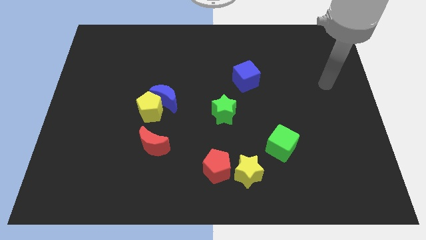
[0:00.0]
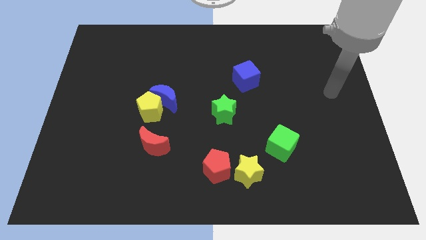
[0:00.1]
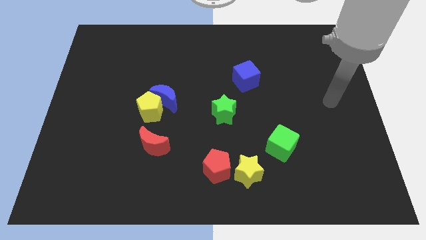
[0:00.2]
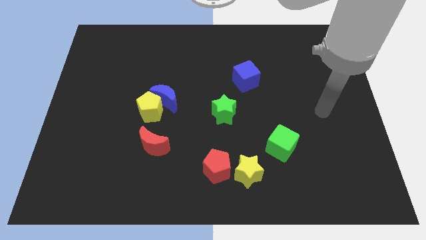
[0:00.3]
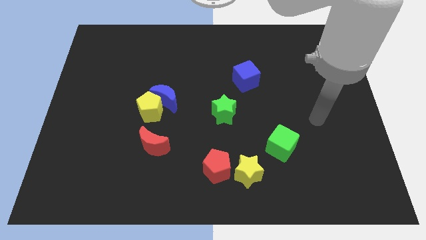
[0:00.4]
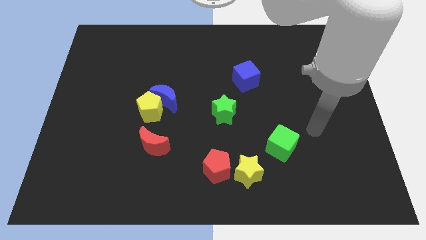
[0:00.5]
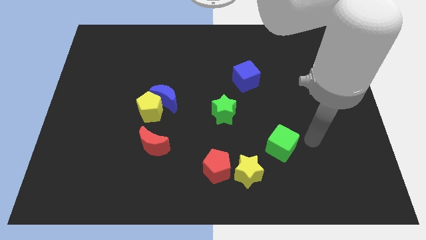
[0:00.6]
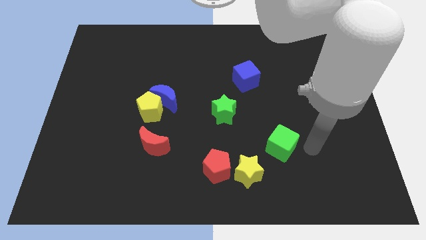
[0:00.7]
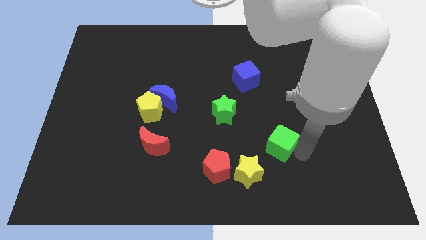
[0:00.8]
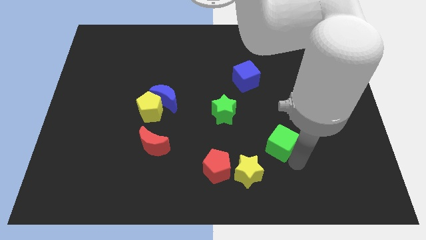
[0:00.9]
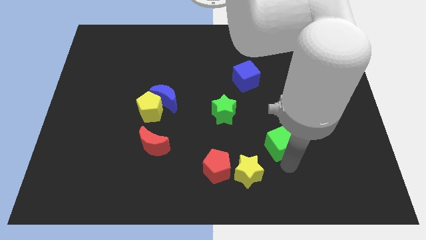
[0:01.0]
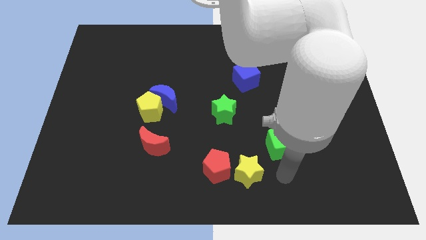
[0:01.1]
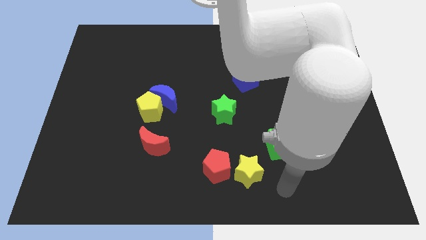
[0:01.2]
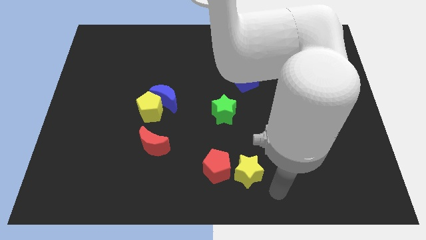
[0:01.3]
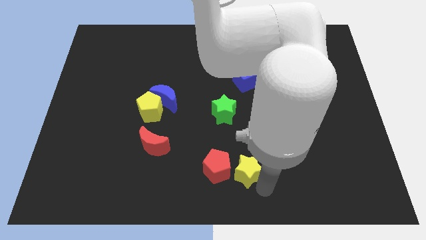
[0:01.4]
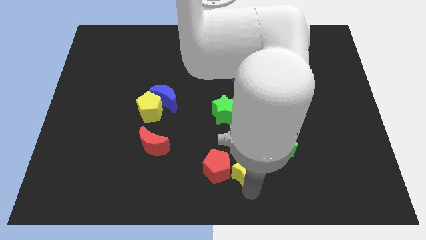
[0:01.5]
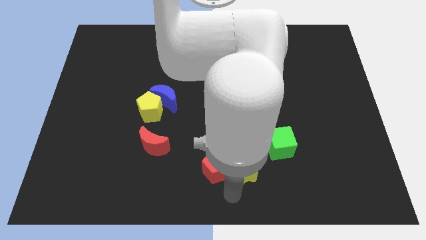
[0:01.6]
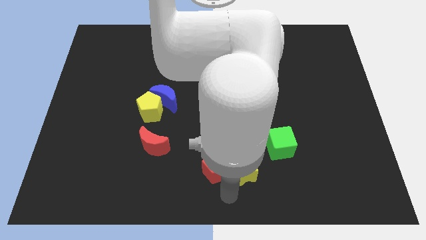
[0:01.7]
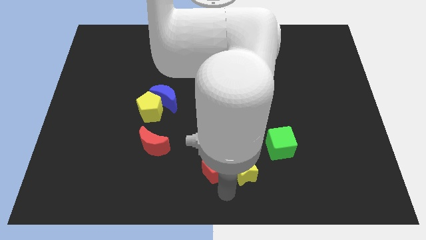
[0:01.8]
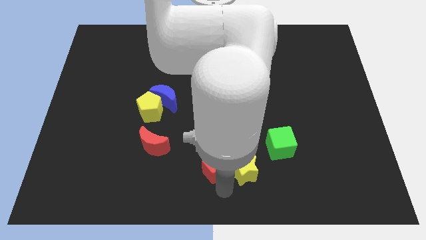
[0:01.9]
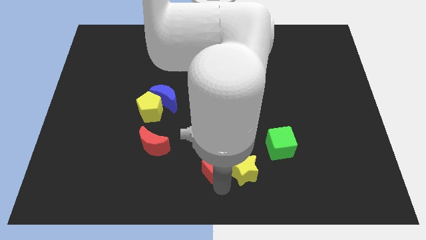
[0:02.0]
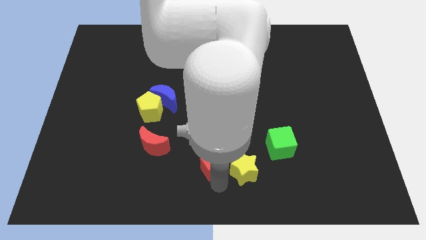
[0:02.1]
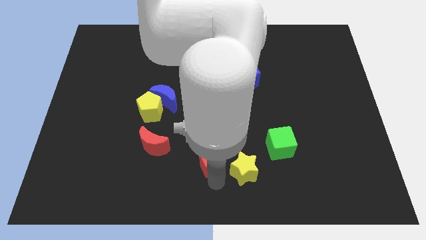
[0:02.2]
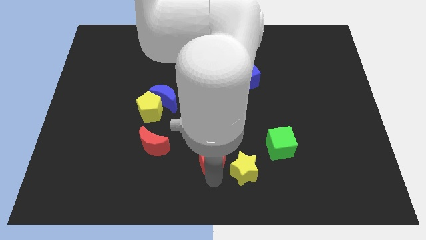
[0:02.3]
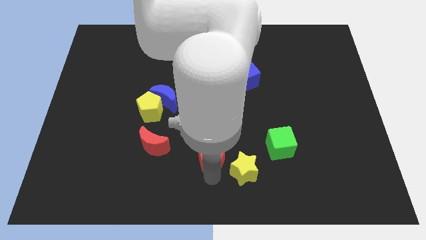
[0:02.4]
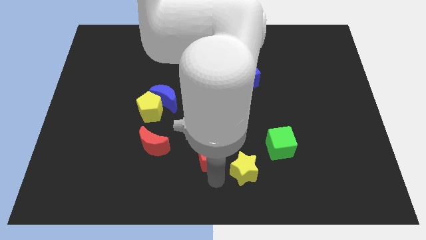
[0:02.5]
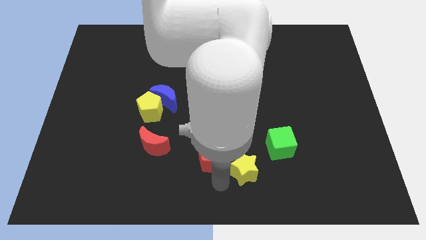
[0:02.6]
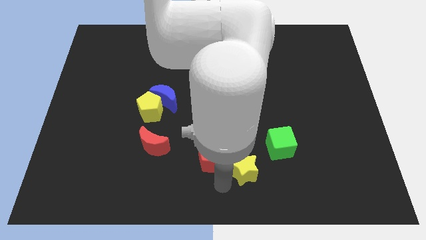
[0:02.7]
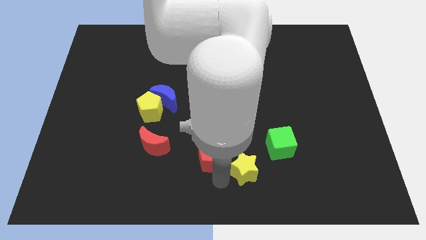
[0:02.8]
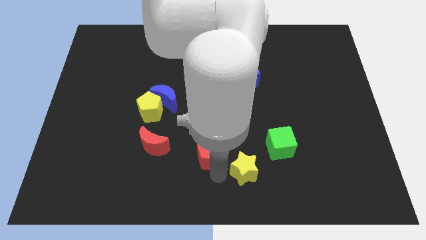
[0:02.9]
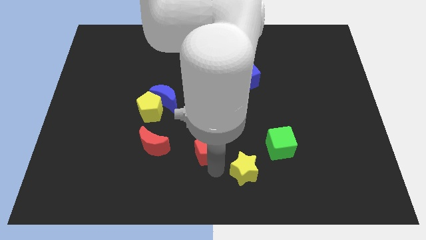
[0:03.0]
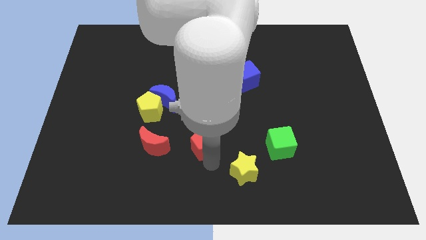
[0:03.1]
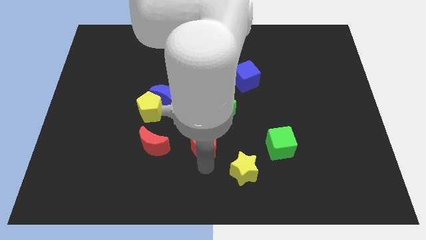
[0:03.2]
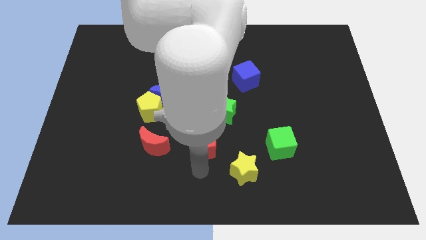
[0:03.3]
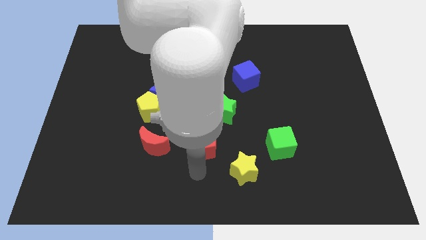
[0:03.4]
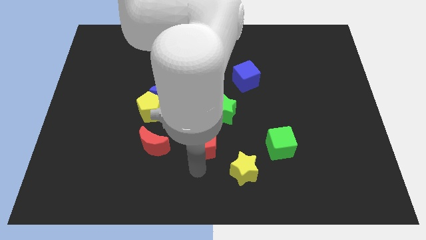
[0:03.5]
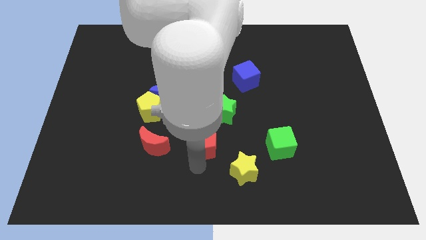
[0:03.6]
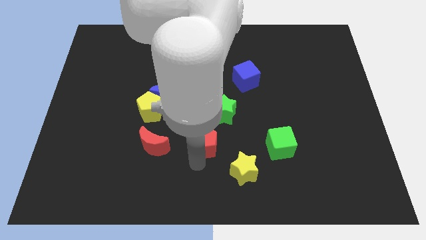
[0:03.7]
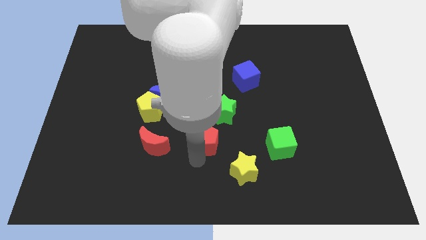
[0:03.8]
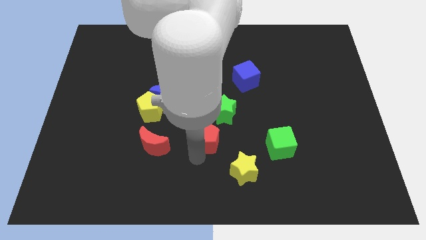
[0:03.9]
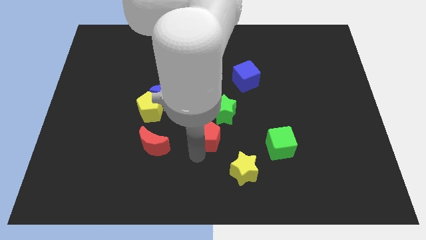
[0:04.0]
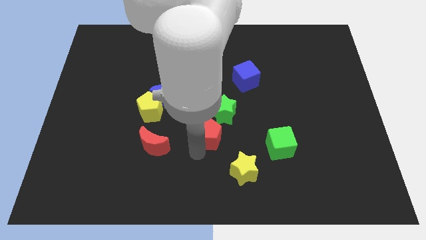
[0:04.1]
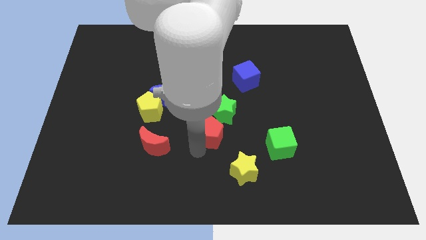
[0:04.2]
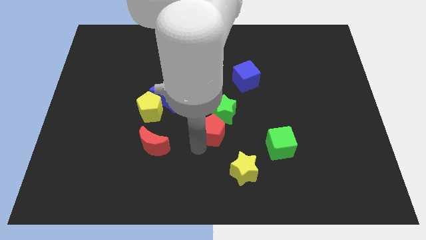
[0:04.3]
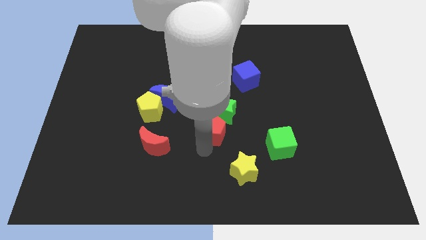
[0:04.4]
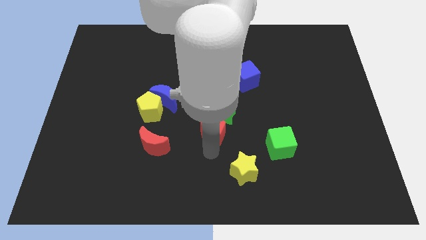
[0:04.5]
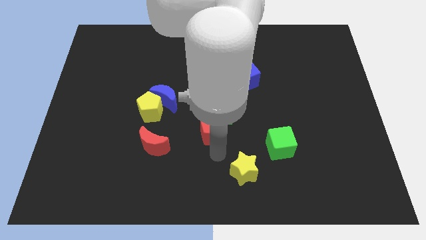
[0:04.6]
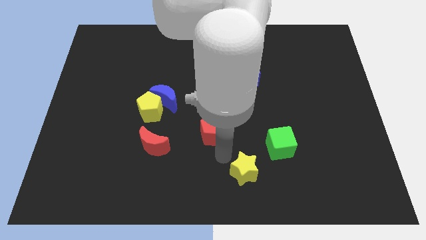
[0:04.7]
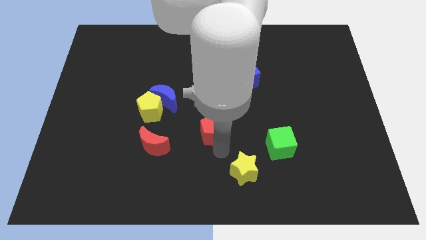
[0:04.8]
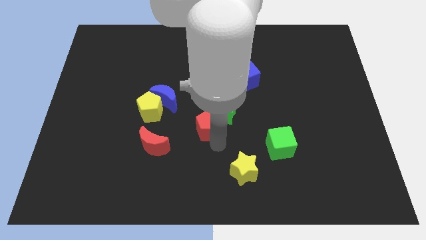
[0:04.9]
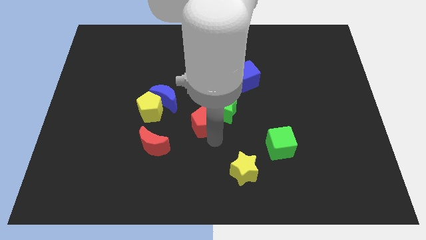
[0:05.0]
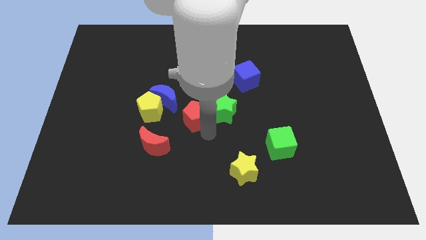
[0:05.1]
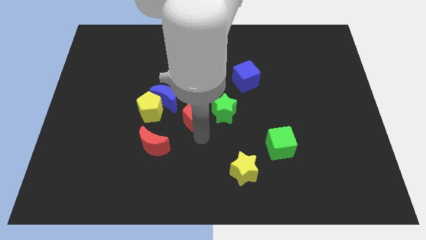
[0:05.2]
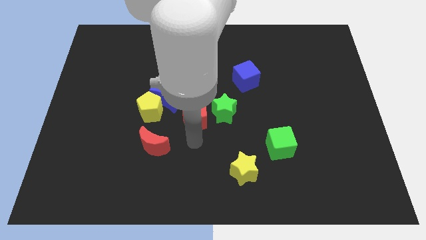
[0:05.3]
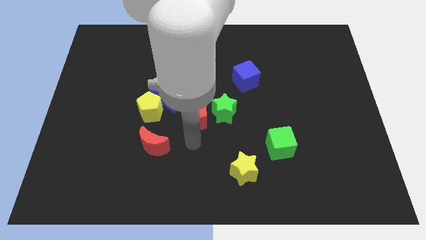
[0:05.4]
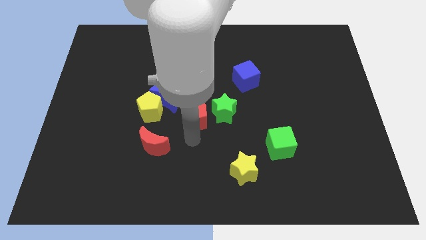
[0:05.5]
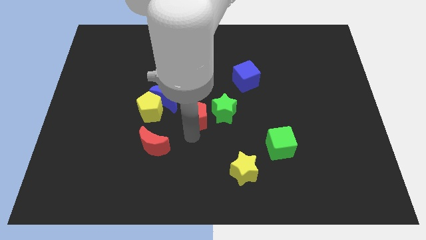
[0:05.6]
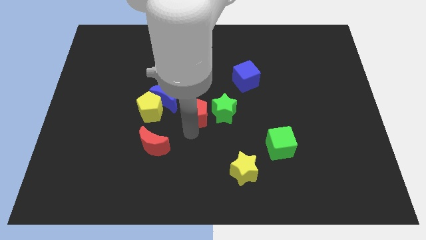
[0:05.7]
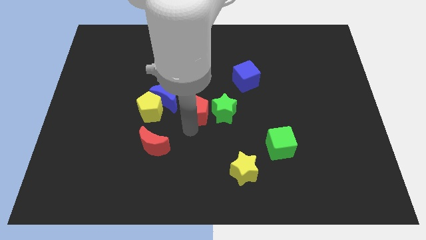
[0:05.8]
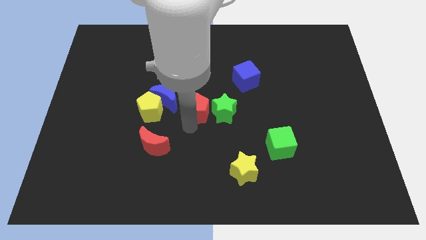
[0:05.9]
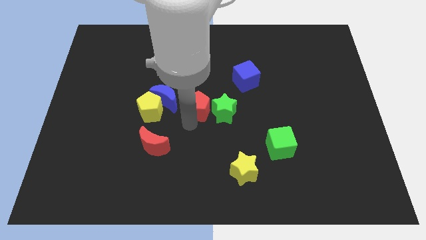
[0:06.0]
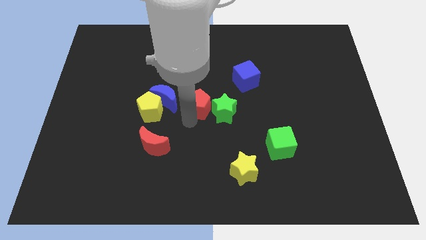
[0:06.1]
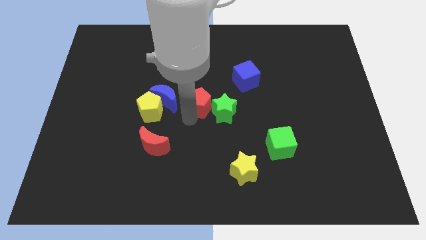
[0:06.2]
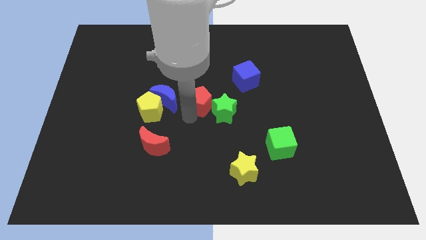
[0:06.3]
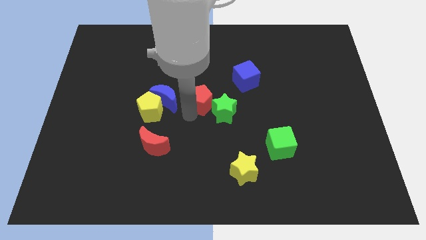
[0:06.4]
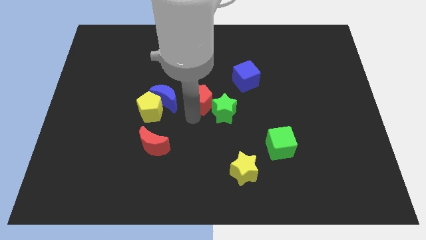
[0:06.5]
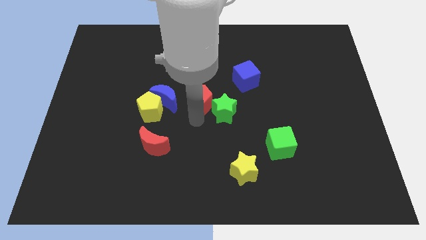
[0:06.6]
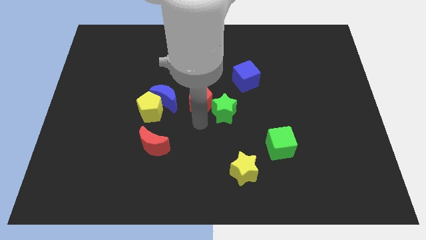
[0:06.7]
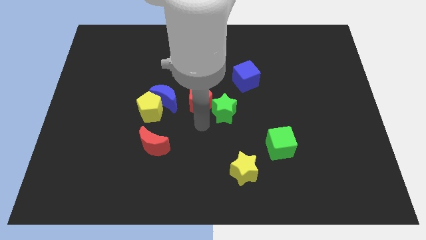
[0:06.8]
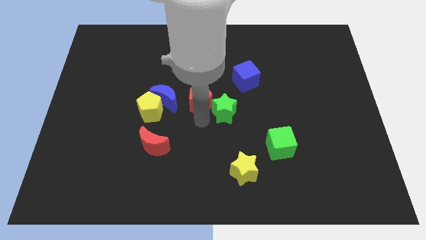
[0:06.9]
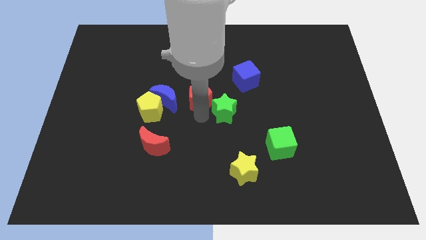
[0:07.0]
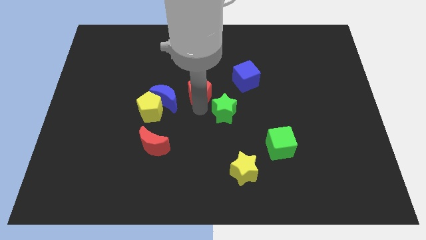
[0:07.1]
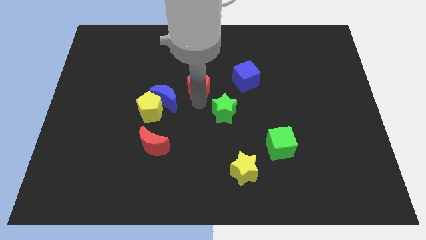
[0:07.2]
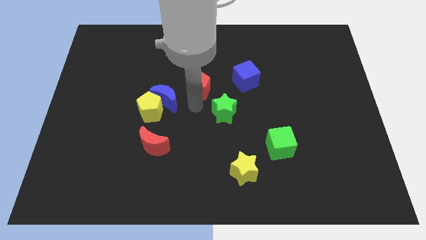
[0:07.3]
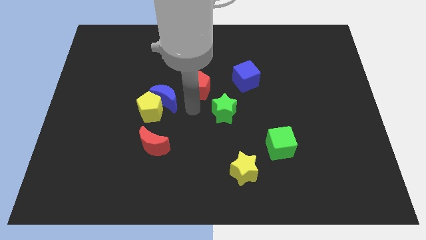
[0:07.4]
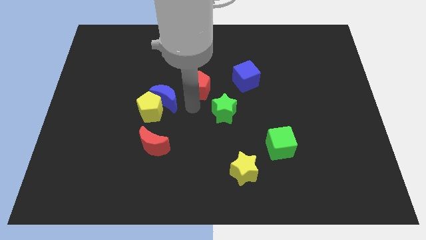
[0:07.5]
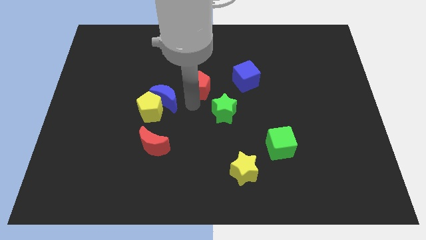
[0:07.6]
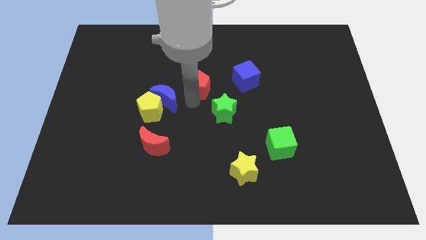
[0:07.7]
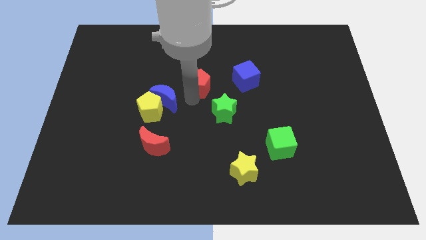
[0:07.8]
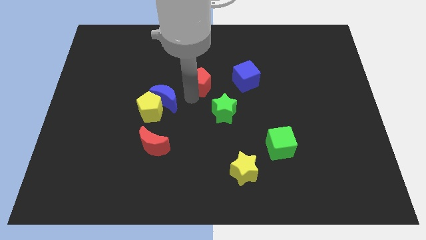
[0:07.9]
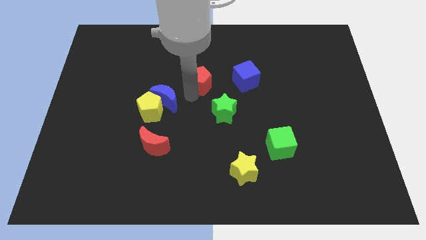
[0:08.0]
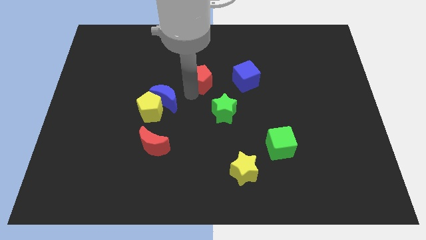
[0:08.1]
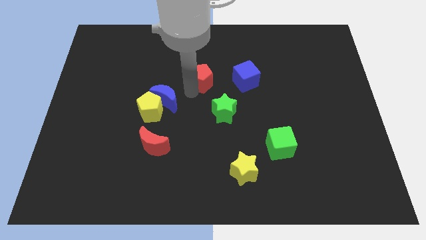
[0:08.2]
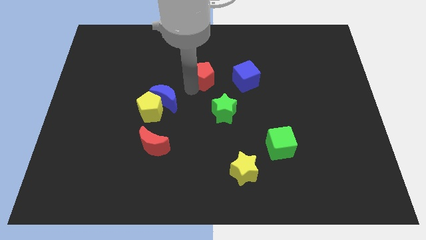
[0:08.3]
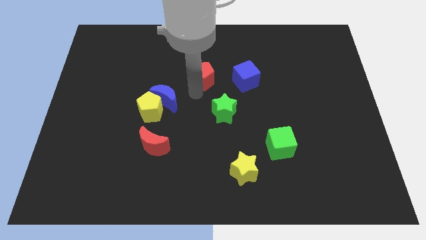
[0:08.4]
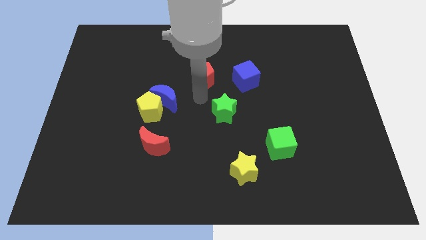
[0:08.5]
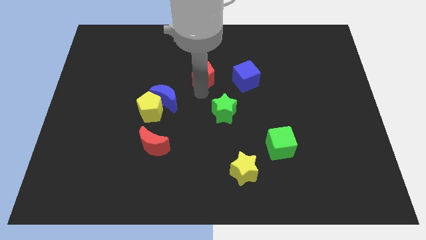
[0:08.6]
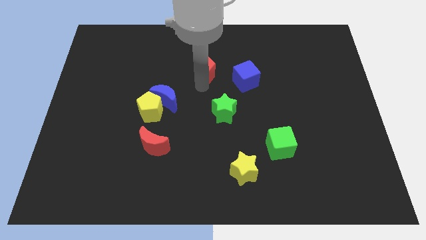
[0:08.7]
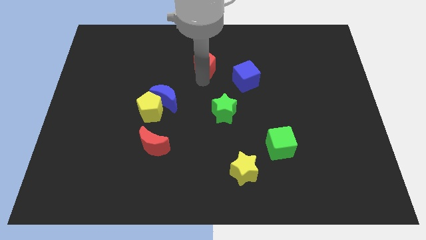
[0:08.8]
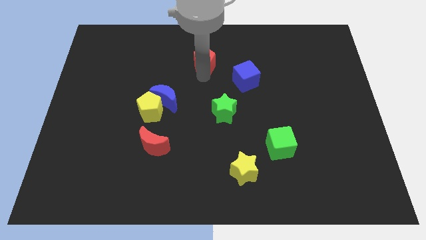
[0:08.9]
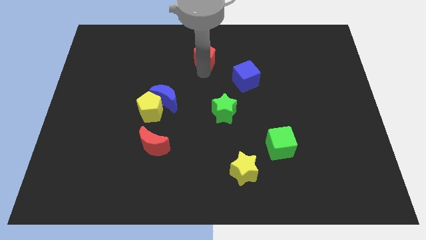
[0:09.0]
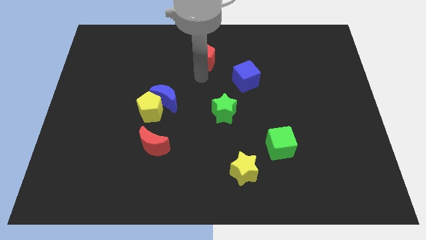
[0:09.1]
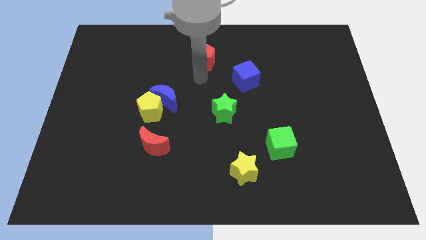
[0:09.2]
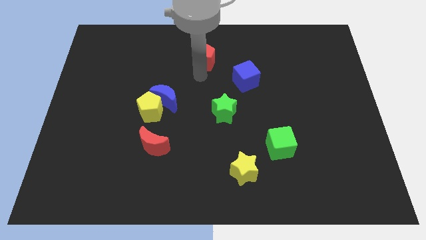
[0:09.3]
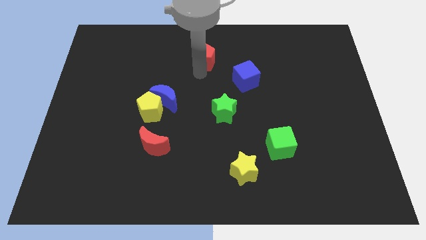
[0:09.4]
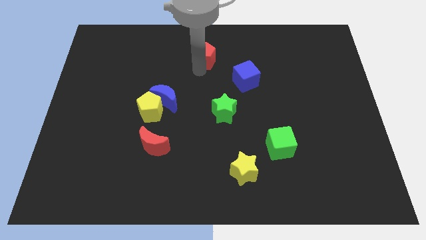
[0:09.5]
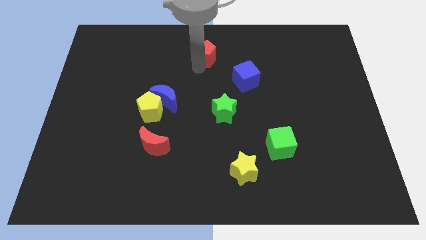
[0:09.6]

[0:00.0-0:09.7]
put the red pentagon to the top side
